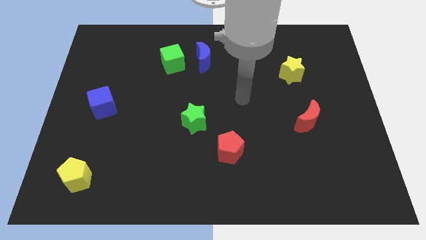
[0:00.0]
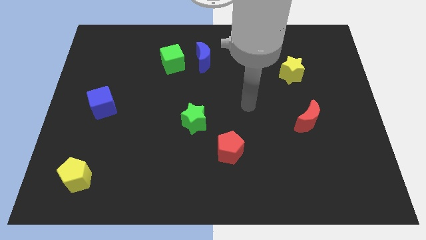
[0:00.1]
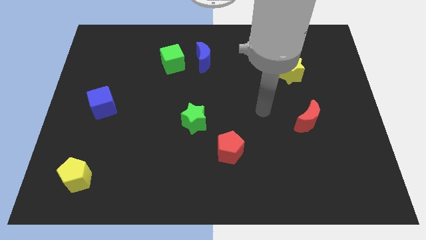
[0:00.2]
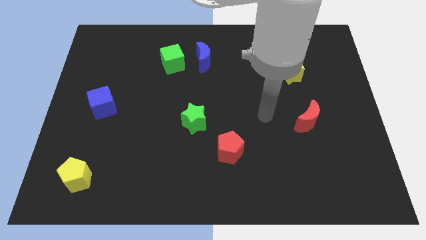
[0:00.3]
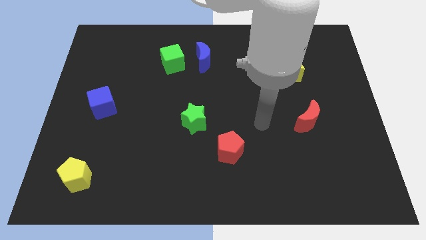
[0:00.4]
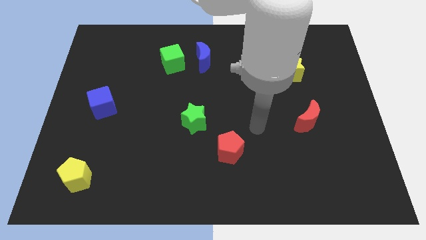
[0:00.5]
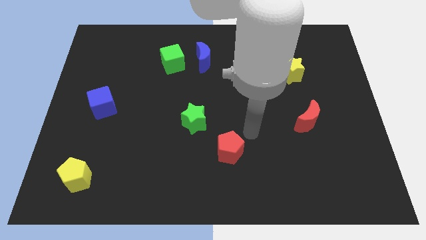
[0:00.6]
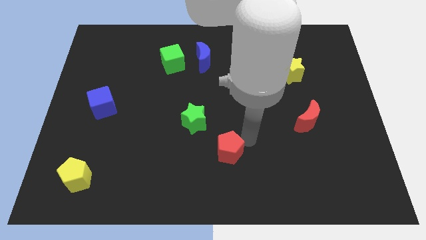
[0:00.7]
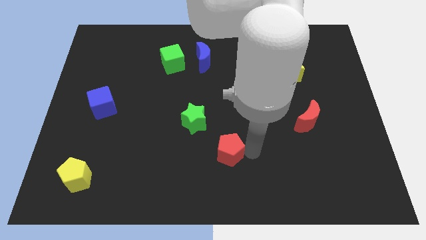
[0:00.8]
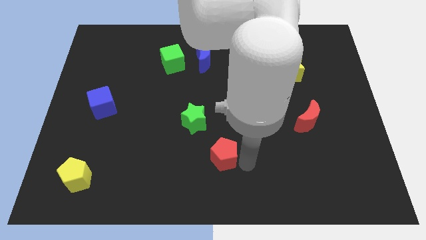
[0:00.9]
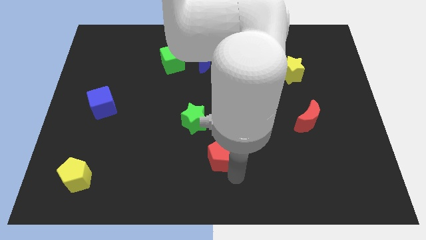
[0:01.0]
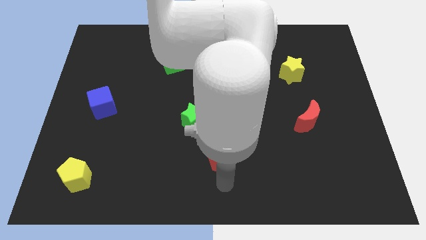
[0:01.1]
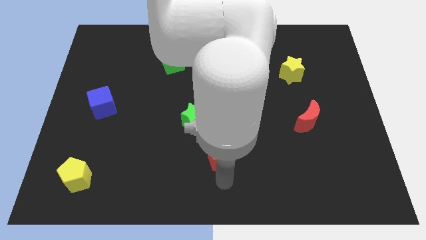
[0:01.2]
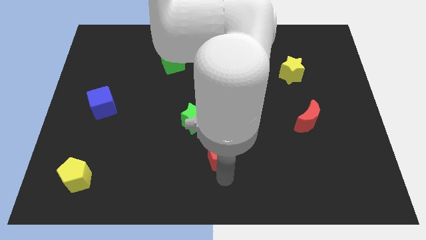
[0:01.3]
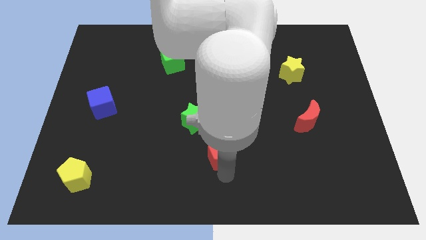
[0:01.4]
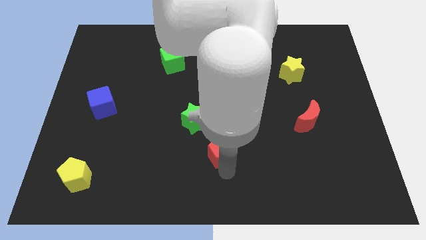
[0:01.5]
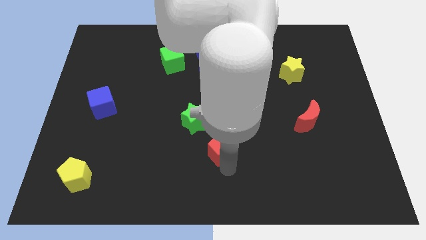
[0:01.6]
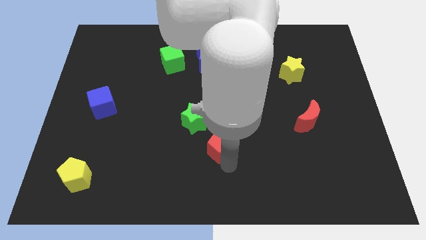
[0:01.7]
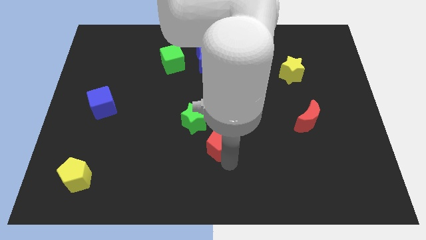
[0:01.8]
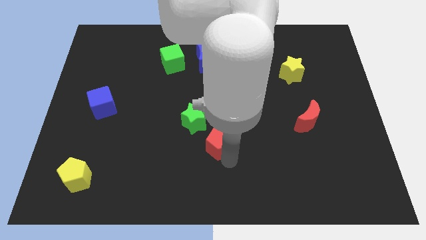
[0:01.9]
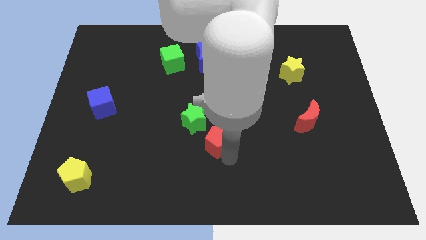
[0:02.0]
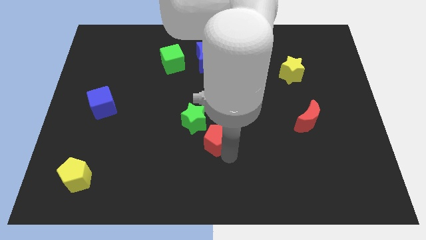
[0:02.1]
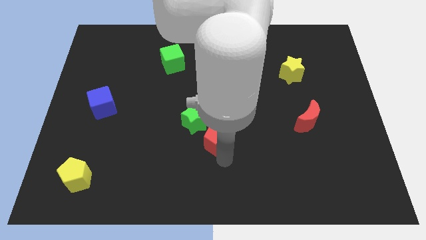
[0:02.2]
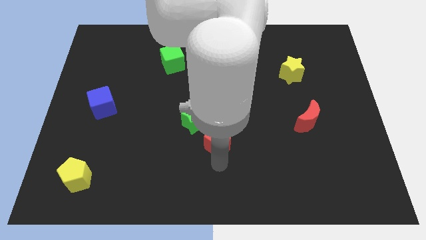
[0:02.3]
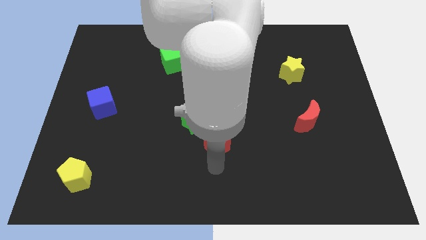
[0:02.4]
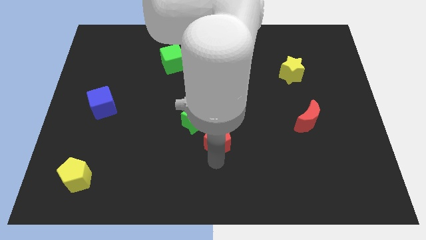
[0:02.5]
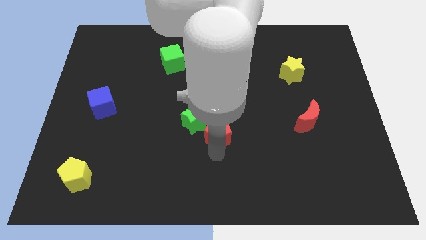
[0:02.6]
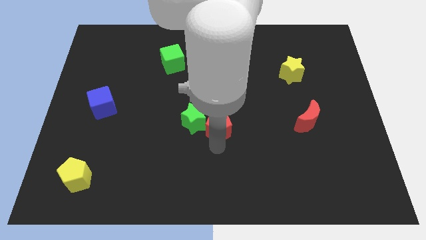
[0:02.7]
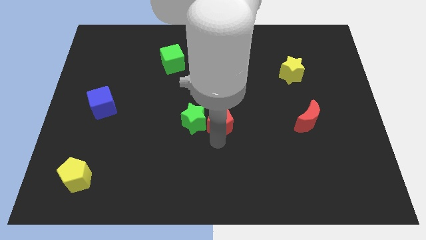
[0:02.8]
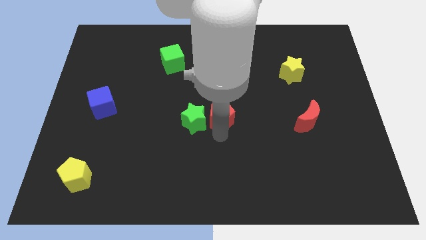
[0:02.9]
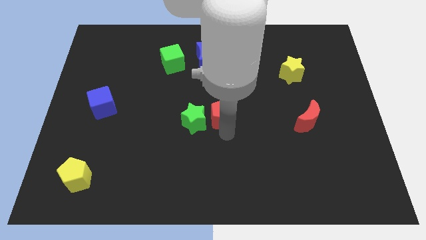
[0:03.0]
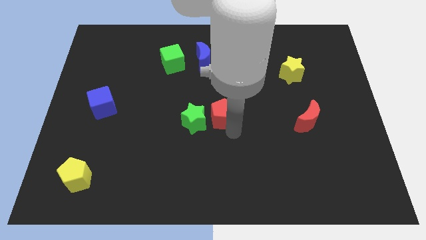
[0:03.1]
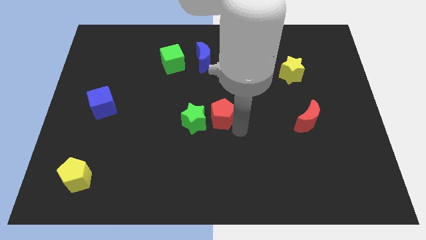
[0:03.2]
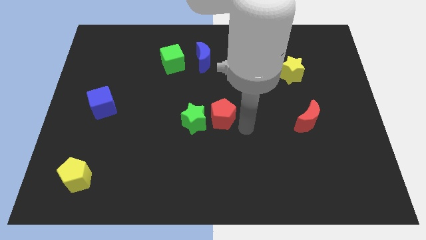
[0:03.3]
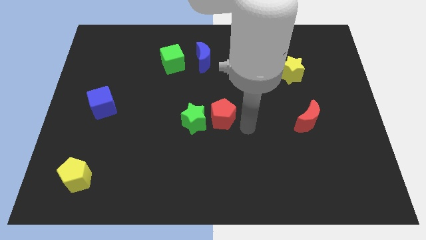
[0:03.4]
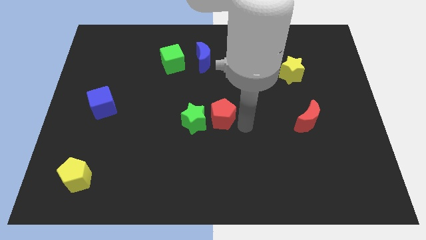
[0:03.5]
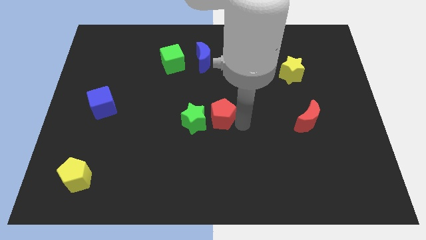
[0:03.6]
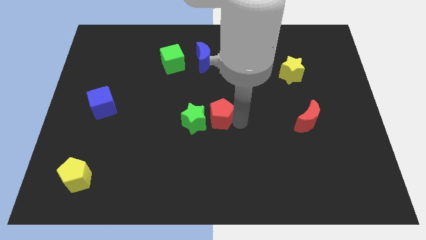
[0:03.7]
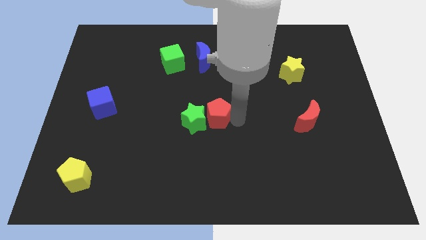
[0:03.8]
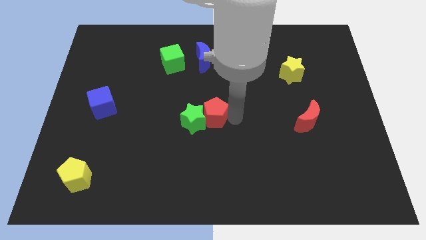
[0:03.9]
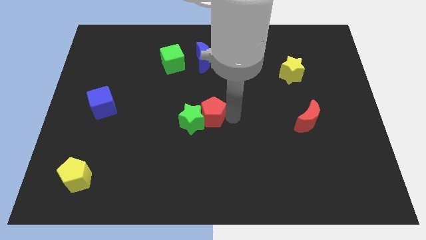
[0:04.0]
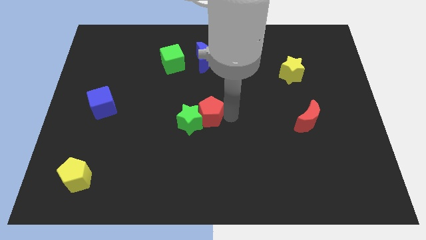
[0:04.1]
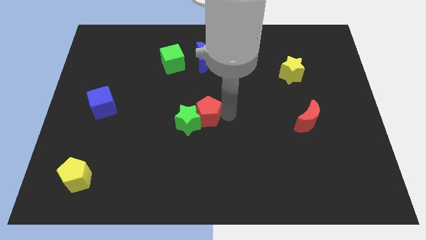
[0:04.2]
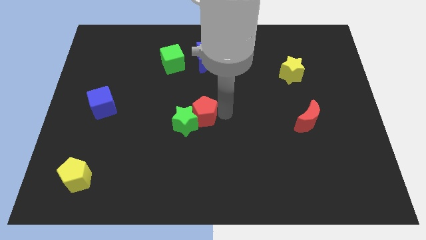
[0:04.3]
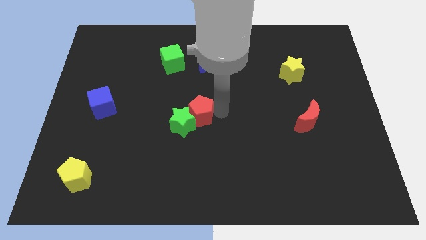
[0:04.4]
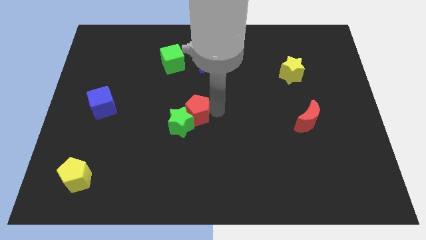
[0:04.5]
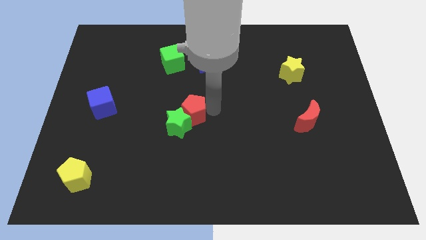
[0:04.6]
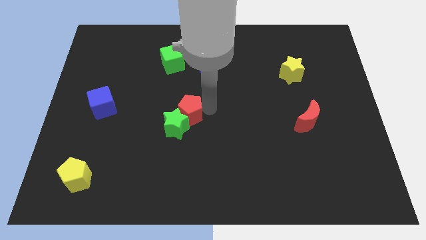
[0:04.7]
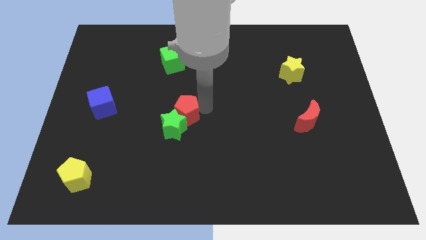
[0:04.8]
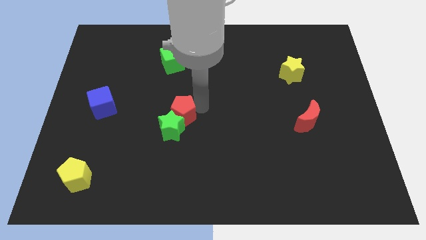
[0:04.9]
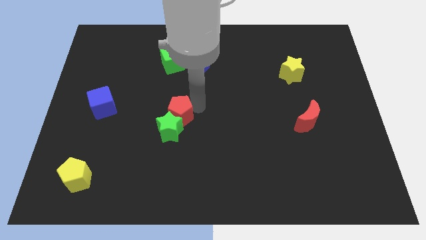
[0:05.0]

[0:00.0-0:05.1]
slide the red pentagon to the top left side of the green star

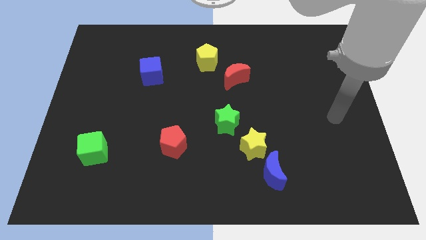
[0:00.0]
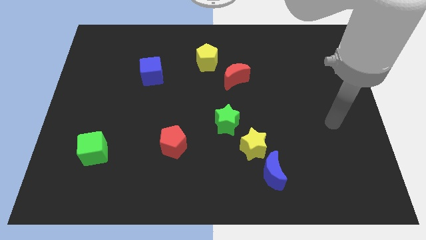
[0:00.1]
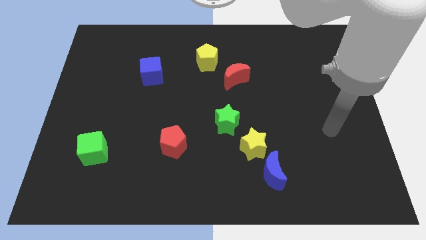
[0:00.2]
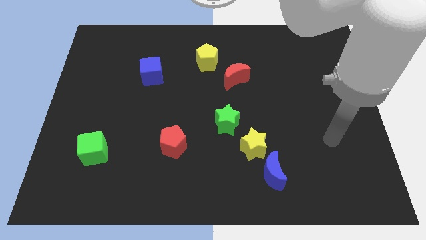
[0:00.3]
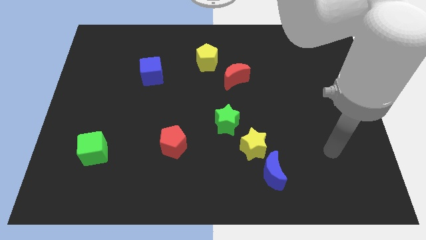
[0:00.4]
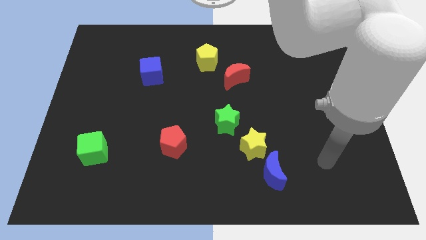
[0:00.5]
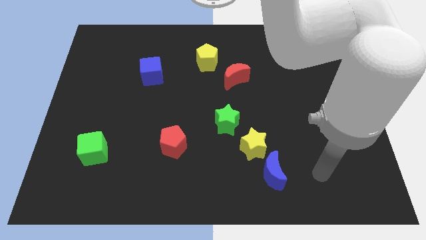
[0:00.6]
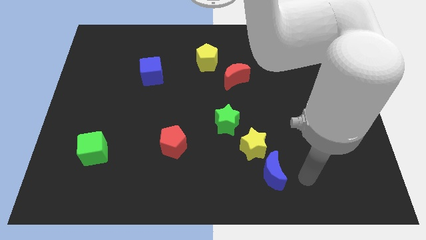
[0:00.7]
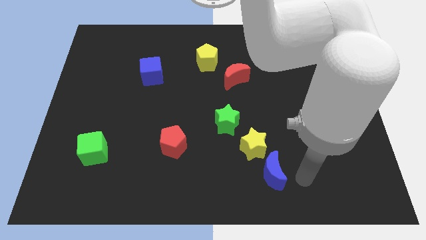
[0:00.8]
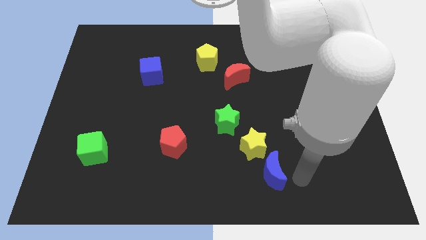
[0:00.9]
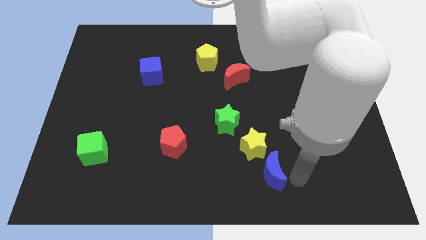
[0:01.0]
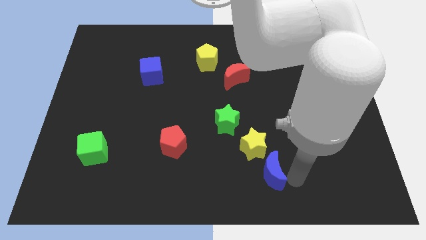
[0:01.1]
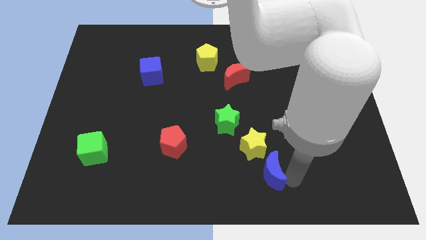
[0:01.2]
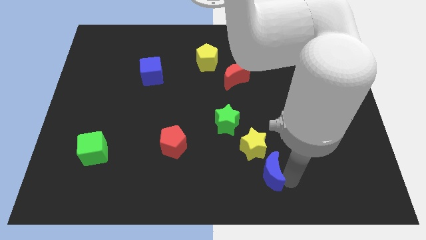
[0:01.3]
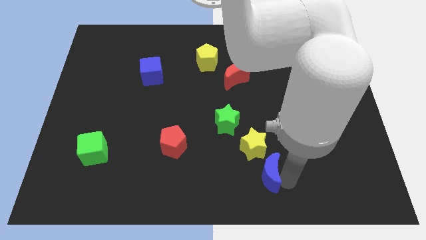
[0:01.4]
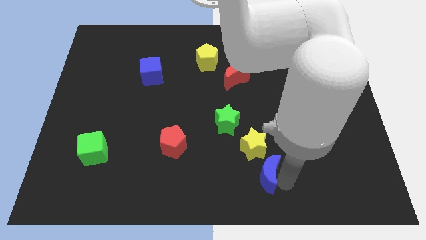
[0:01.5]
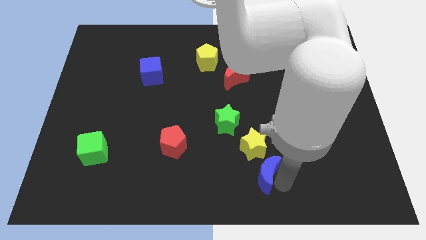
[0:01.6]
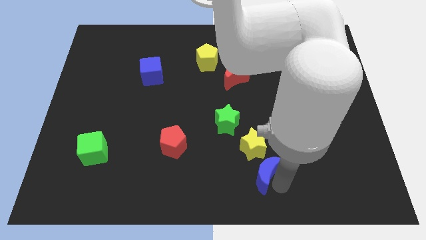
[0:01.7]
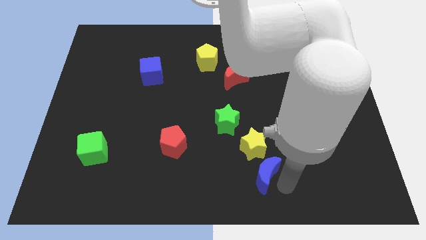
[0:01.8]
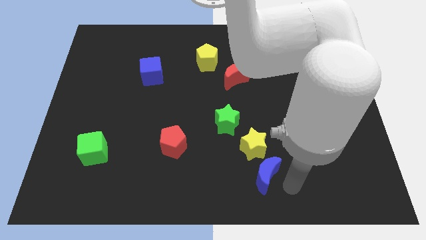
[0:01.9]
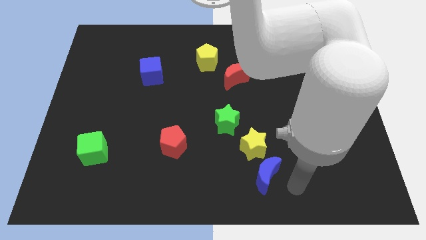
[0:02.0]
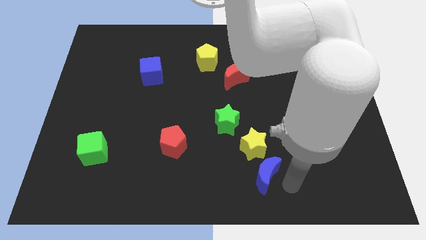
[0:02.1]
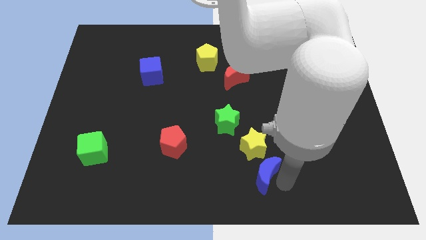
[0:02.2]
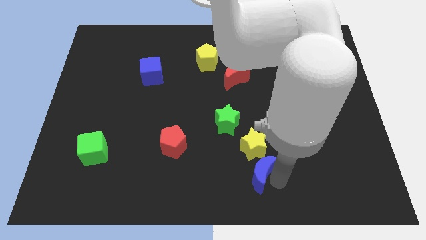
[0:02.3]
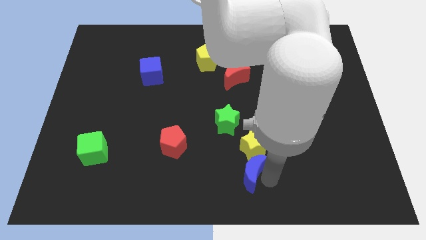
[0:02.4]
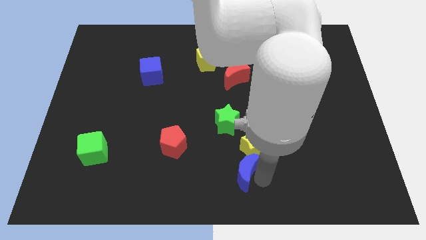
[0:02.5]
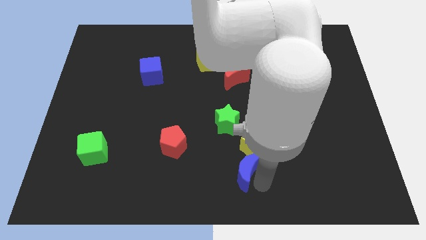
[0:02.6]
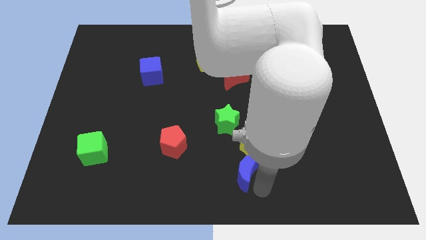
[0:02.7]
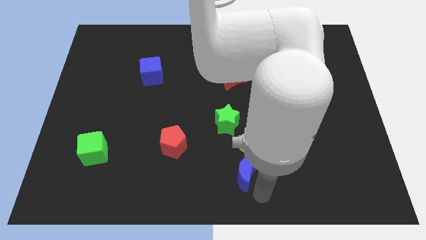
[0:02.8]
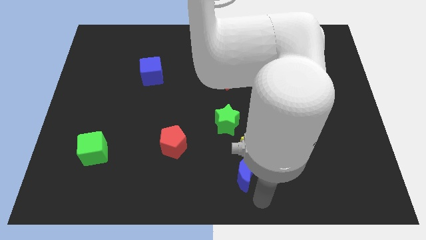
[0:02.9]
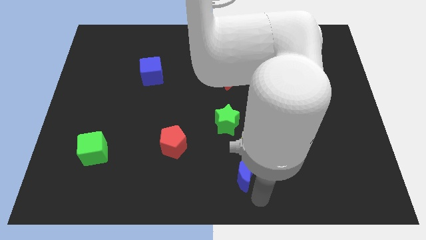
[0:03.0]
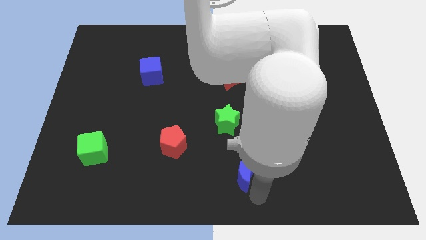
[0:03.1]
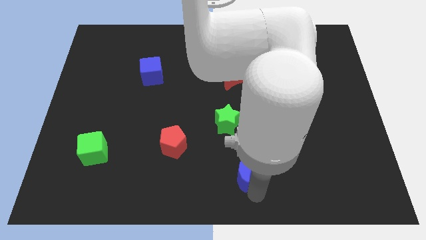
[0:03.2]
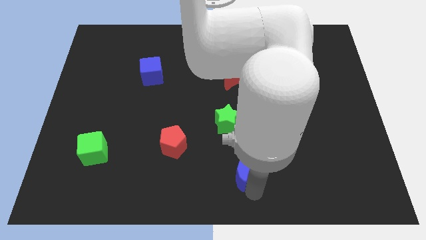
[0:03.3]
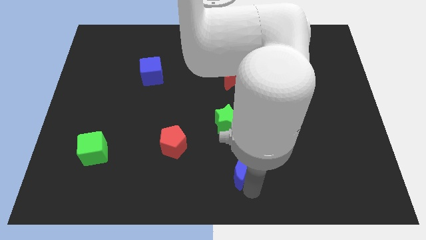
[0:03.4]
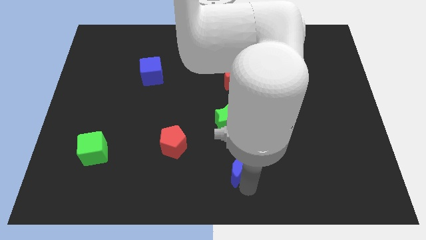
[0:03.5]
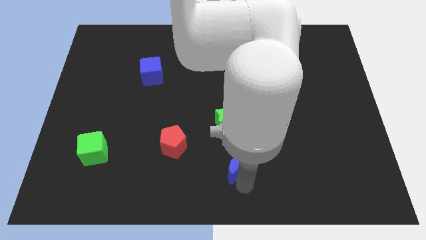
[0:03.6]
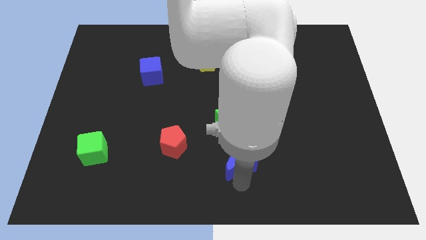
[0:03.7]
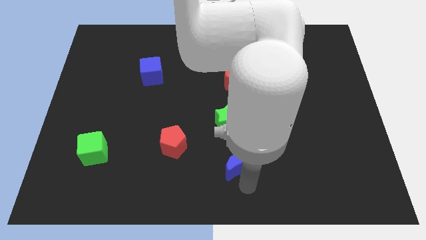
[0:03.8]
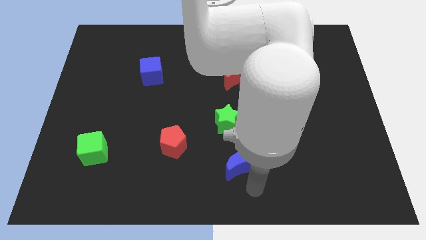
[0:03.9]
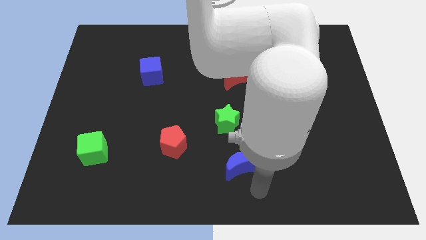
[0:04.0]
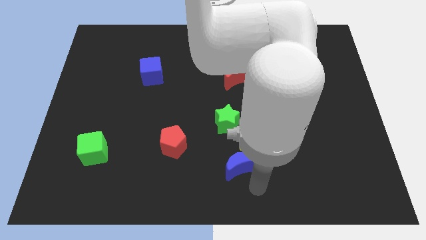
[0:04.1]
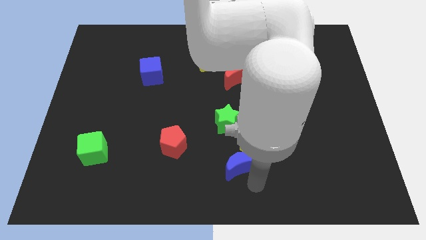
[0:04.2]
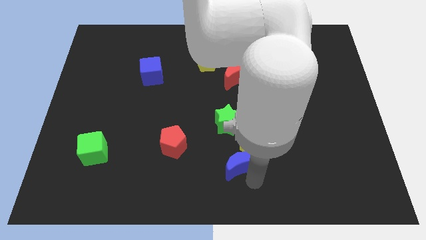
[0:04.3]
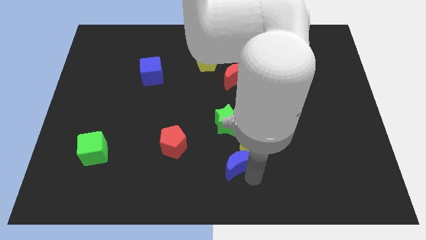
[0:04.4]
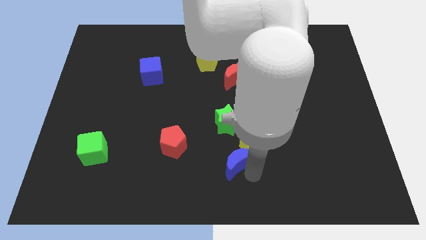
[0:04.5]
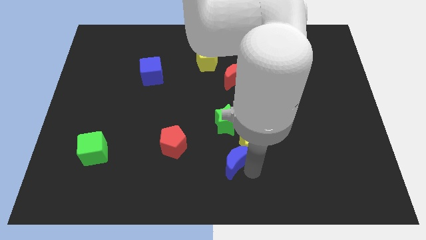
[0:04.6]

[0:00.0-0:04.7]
push the blue moon just right of the red pentagon
